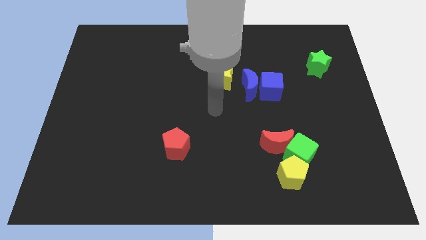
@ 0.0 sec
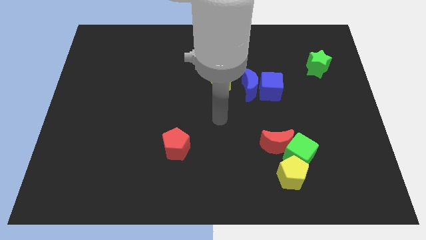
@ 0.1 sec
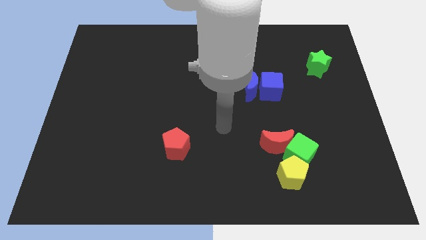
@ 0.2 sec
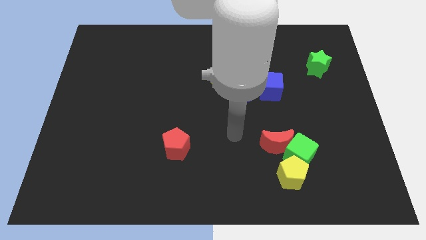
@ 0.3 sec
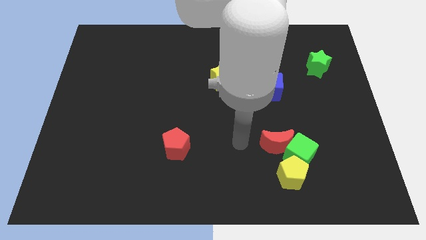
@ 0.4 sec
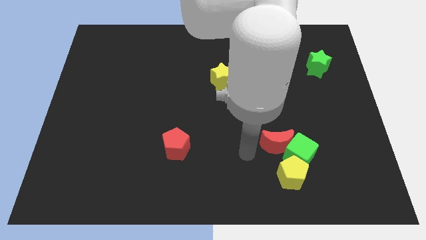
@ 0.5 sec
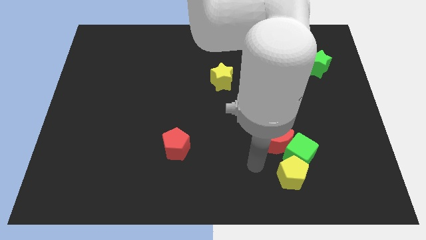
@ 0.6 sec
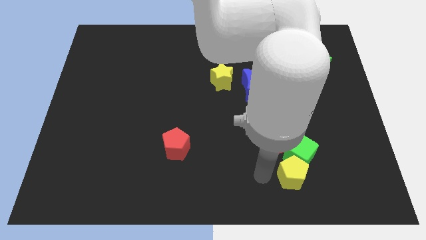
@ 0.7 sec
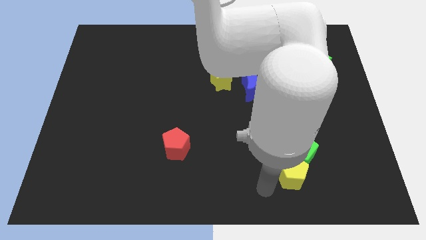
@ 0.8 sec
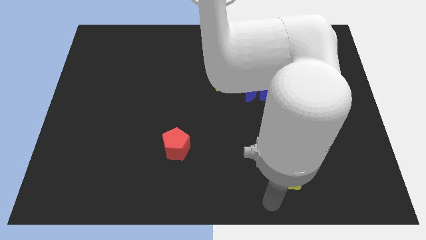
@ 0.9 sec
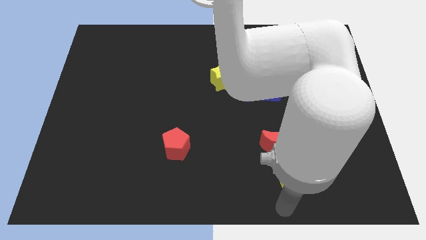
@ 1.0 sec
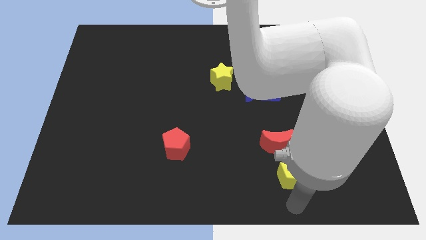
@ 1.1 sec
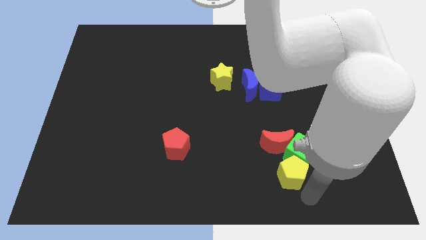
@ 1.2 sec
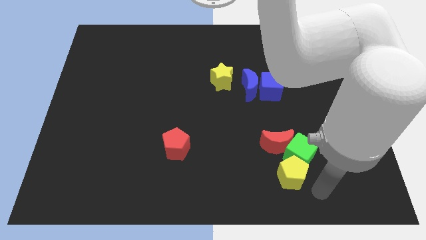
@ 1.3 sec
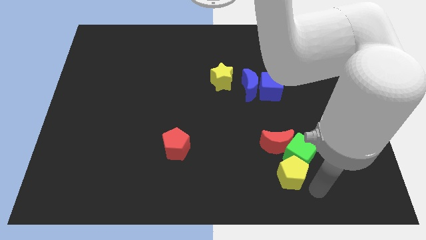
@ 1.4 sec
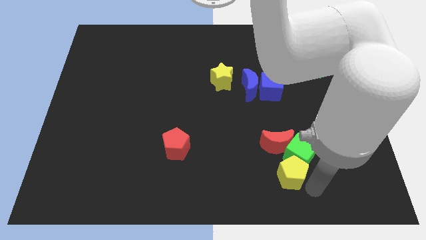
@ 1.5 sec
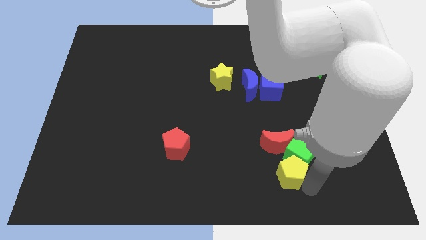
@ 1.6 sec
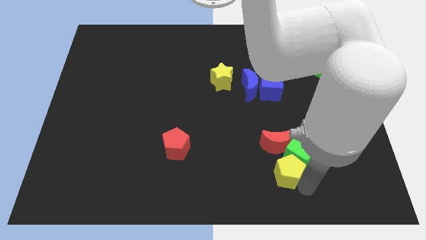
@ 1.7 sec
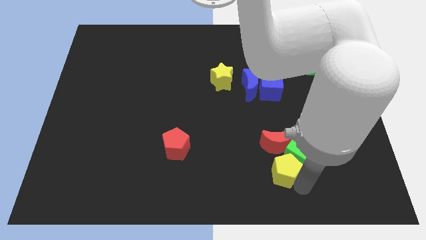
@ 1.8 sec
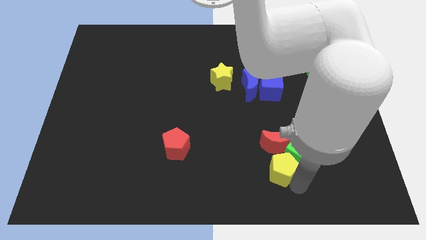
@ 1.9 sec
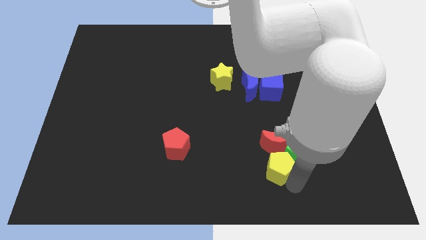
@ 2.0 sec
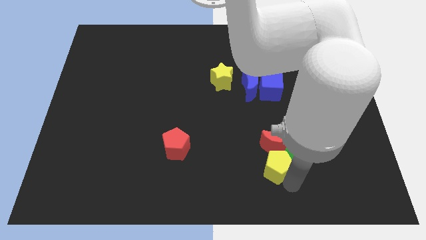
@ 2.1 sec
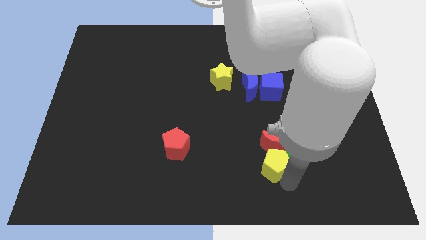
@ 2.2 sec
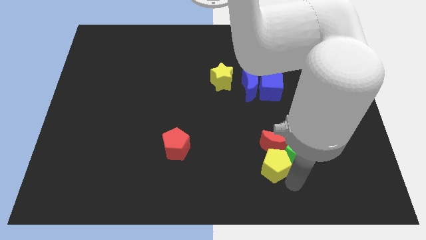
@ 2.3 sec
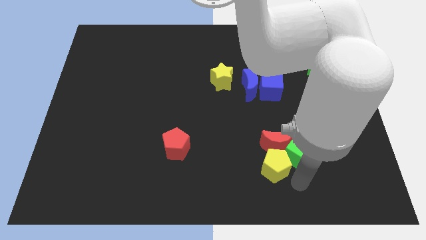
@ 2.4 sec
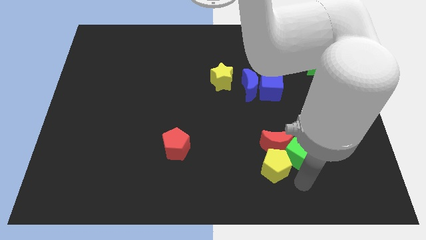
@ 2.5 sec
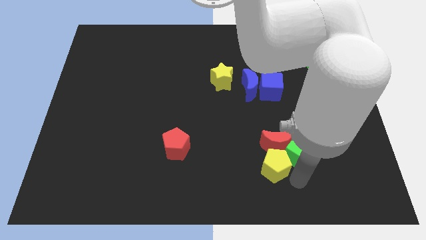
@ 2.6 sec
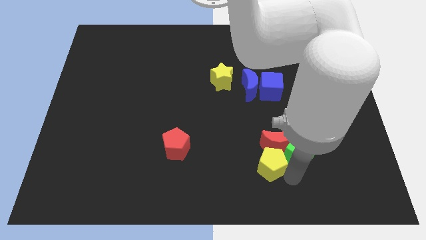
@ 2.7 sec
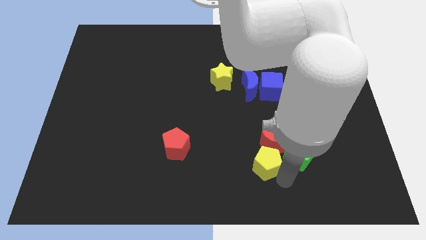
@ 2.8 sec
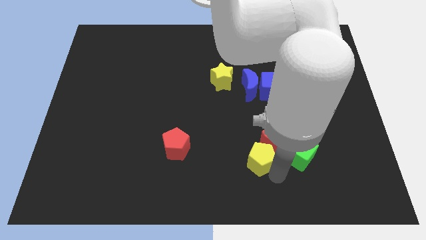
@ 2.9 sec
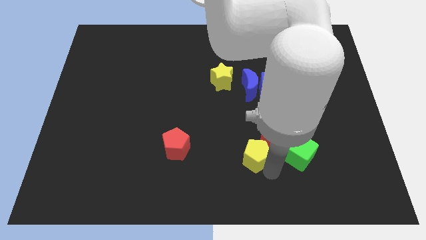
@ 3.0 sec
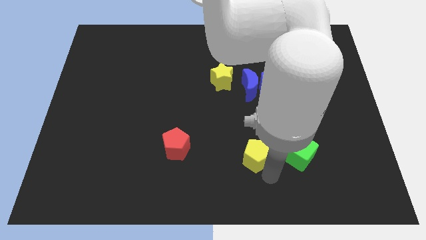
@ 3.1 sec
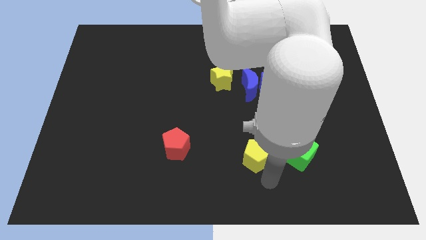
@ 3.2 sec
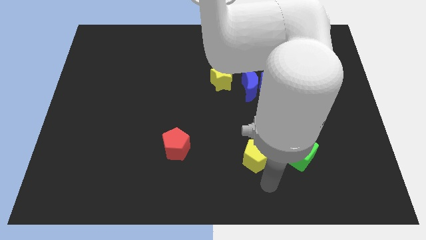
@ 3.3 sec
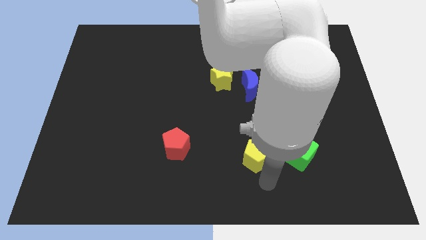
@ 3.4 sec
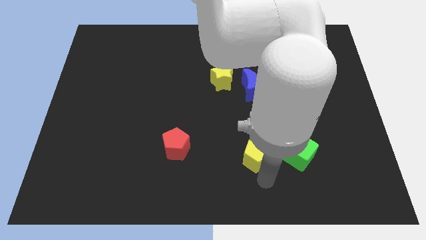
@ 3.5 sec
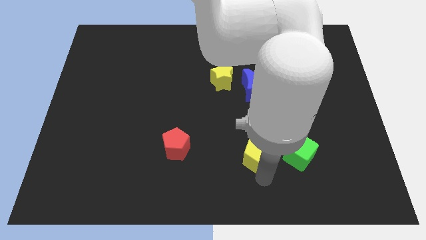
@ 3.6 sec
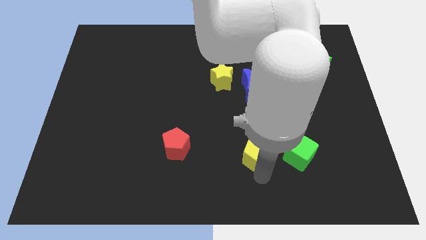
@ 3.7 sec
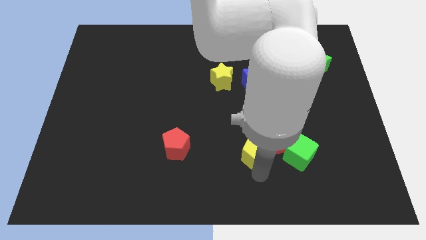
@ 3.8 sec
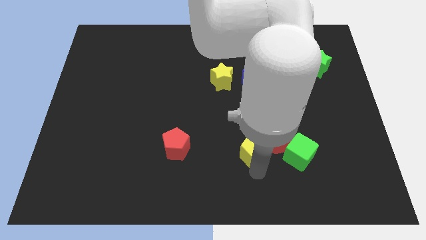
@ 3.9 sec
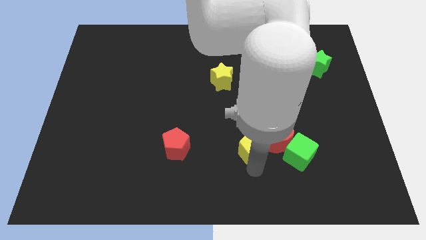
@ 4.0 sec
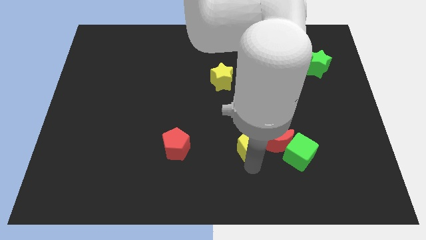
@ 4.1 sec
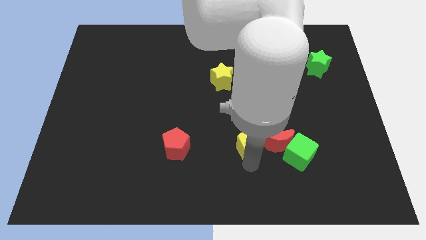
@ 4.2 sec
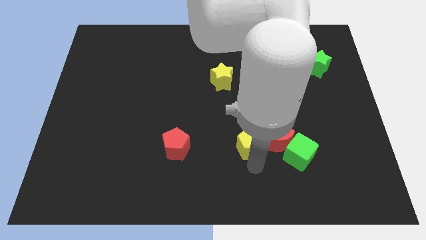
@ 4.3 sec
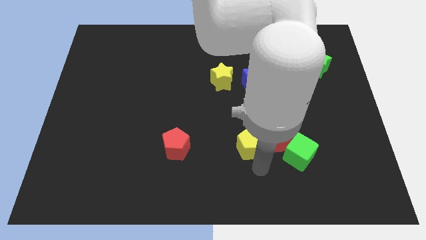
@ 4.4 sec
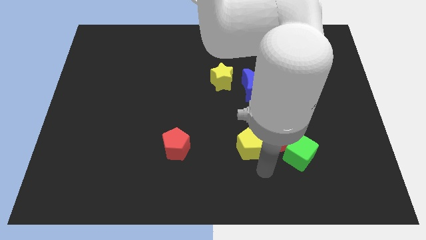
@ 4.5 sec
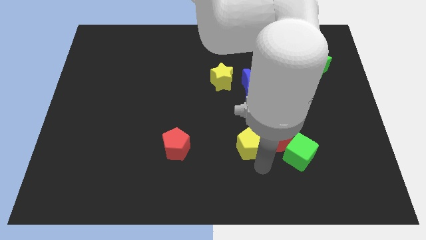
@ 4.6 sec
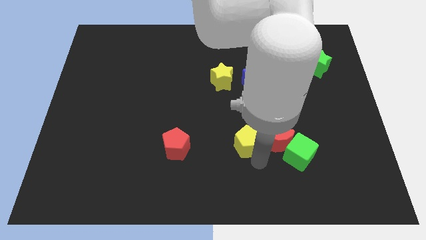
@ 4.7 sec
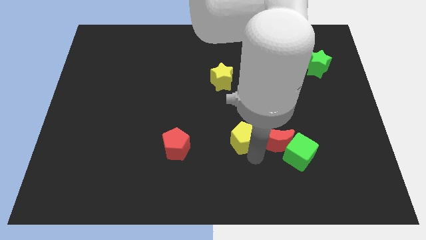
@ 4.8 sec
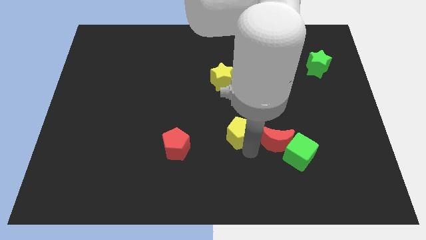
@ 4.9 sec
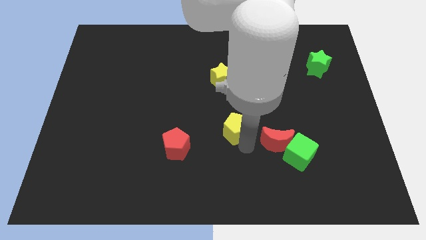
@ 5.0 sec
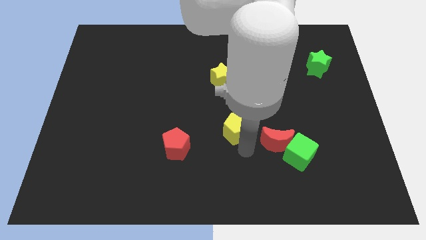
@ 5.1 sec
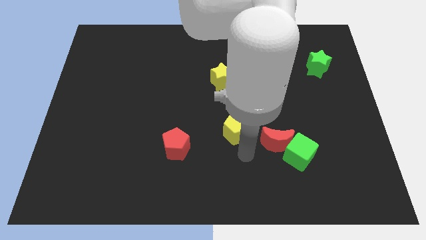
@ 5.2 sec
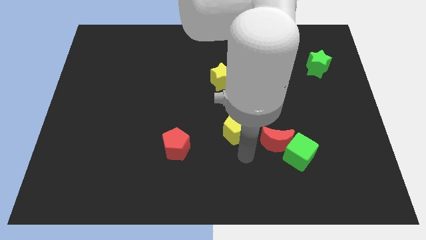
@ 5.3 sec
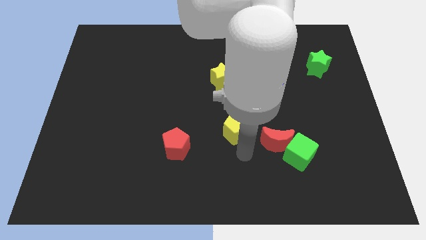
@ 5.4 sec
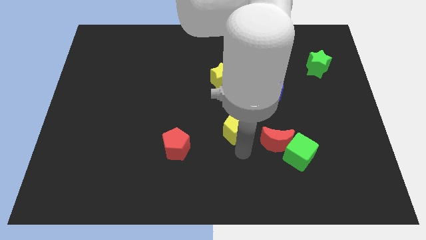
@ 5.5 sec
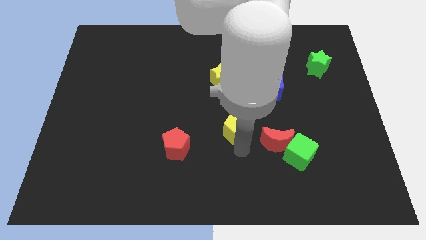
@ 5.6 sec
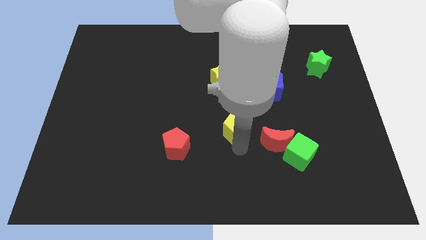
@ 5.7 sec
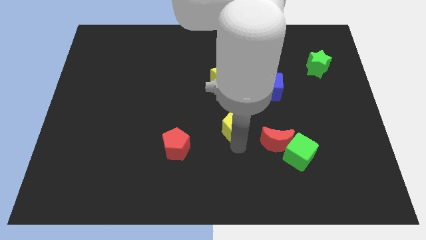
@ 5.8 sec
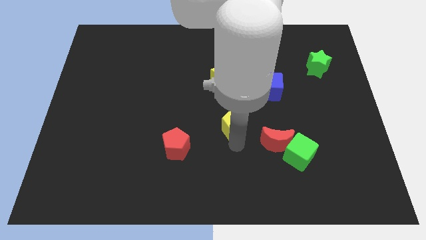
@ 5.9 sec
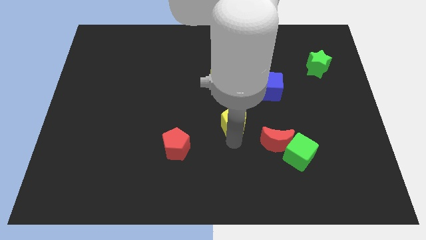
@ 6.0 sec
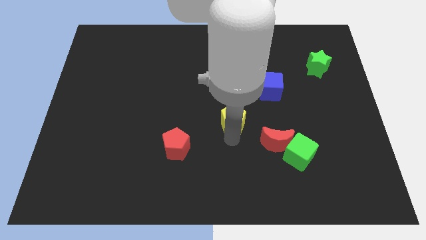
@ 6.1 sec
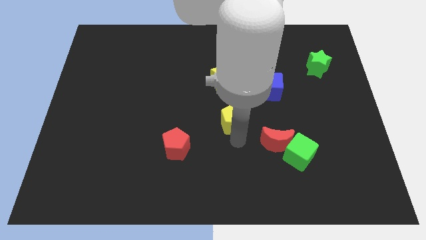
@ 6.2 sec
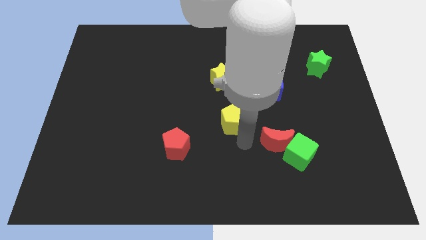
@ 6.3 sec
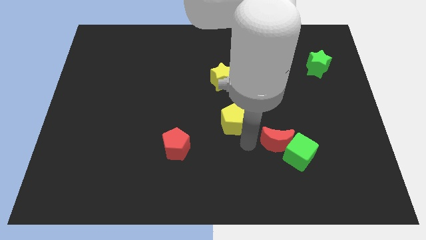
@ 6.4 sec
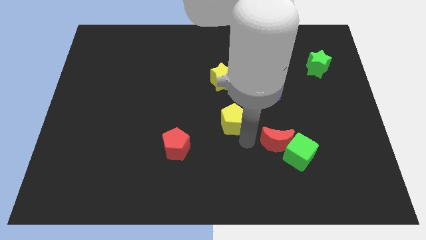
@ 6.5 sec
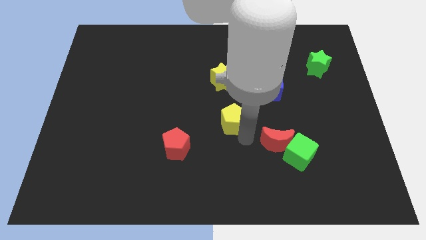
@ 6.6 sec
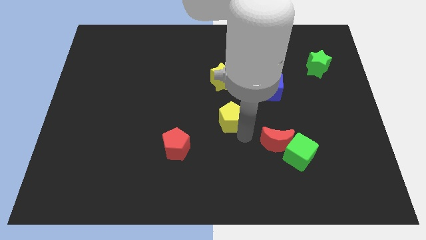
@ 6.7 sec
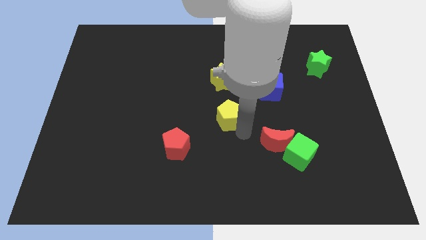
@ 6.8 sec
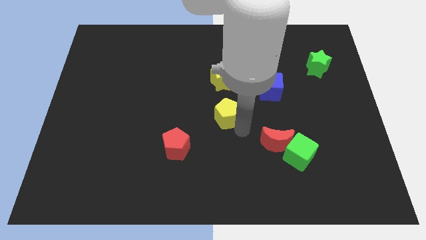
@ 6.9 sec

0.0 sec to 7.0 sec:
slide the yellow pentagon upwards and left diagonally

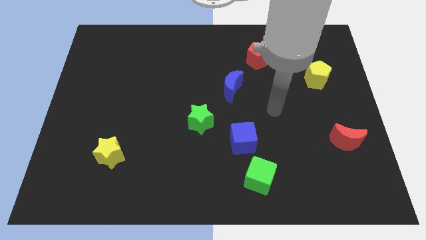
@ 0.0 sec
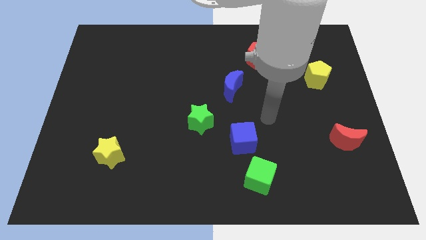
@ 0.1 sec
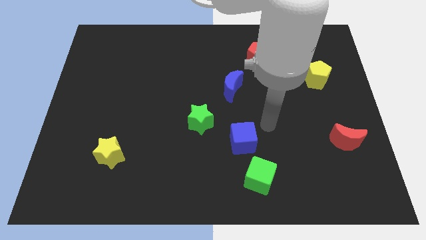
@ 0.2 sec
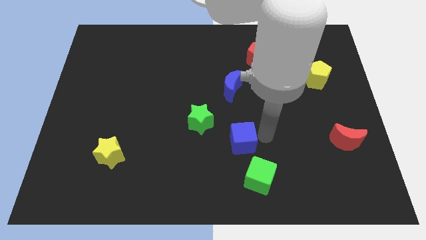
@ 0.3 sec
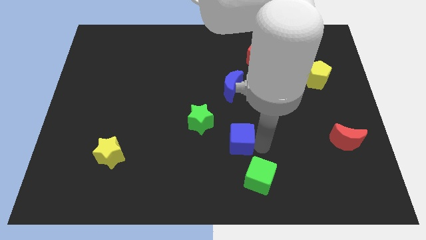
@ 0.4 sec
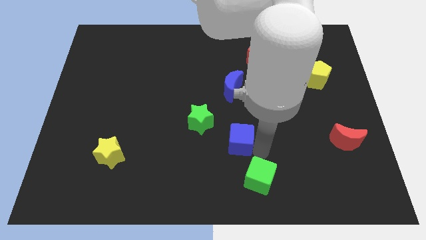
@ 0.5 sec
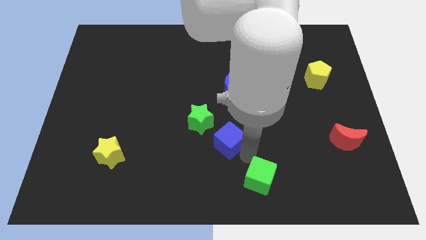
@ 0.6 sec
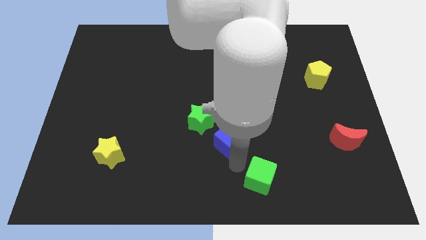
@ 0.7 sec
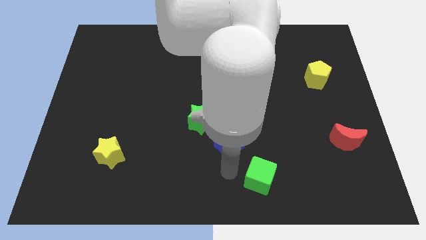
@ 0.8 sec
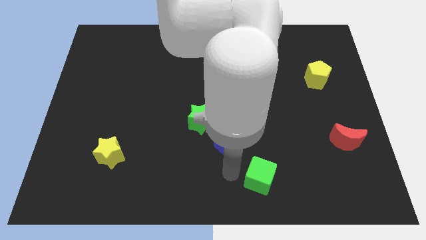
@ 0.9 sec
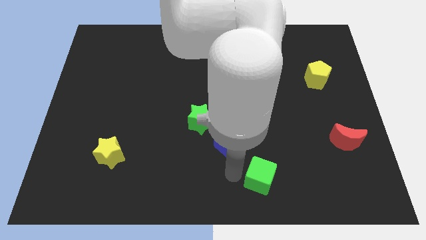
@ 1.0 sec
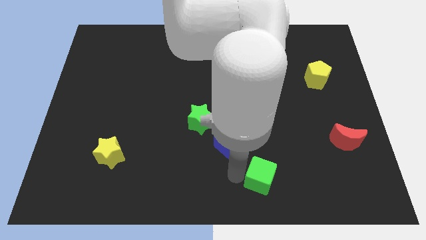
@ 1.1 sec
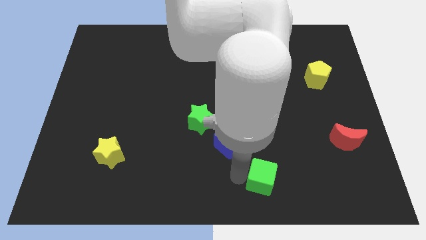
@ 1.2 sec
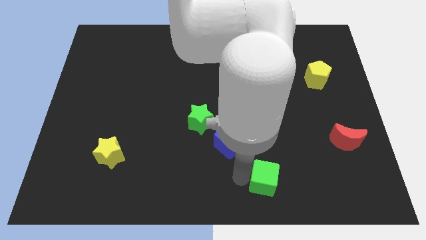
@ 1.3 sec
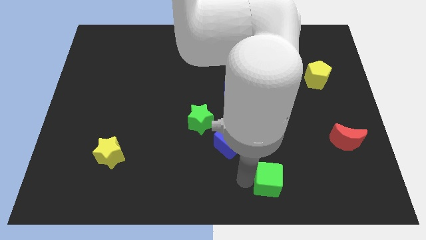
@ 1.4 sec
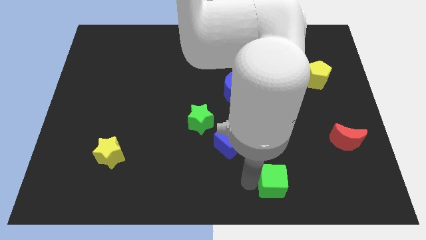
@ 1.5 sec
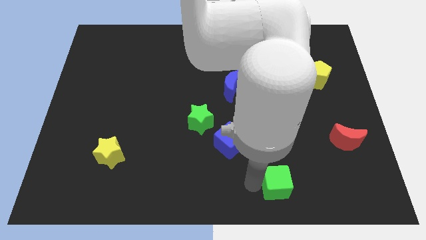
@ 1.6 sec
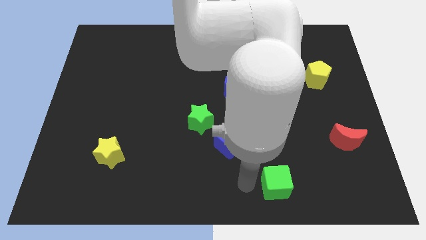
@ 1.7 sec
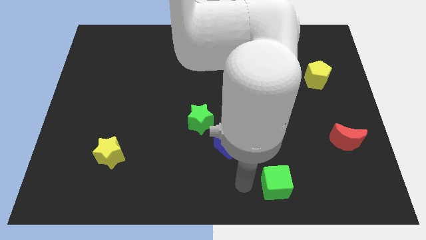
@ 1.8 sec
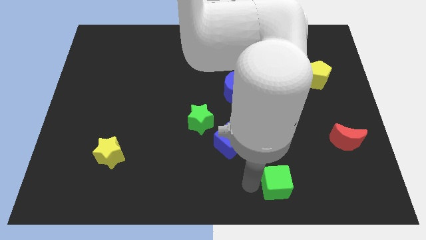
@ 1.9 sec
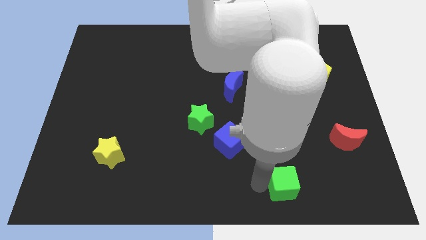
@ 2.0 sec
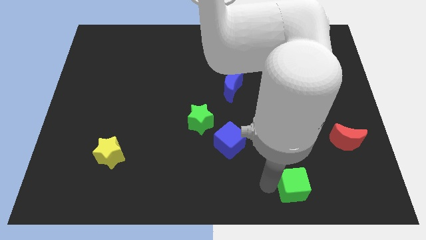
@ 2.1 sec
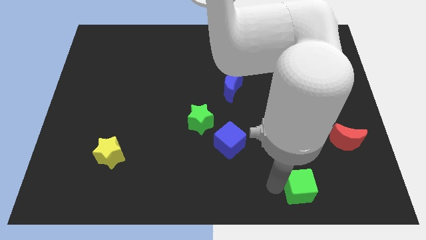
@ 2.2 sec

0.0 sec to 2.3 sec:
push the green cube a bit to the right
